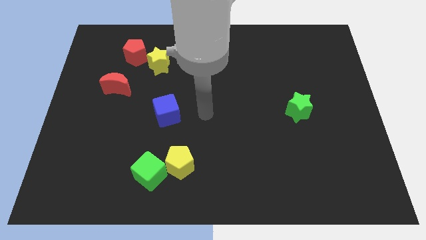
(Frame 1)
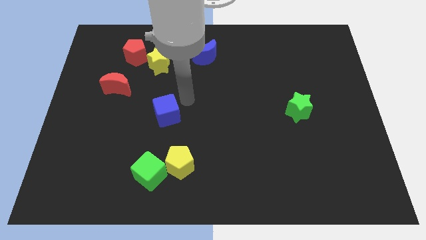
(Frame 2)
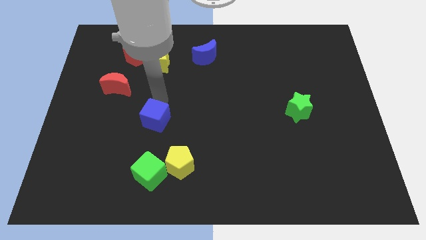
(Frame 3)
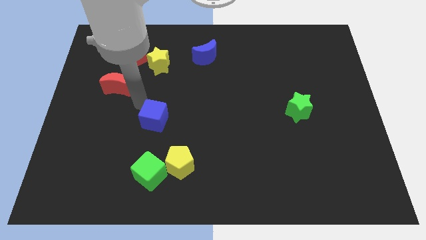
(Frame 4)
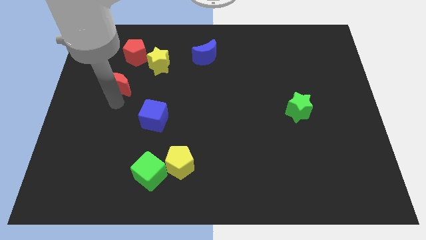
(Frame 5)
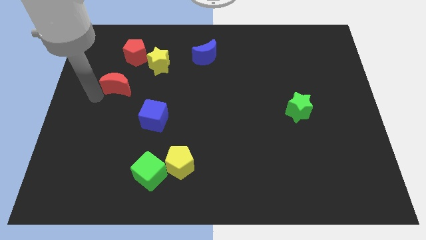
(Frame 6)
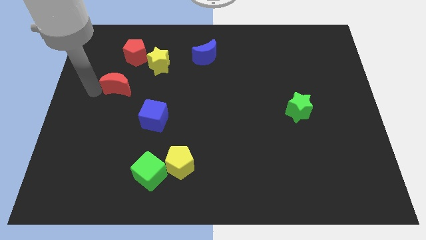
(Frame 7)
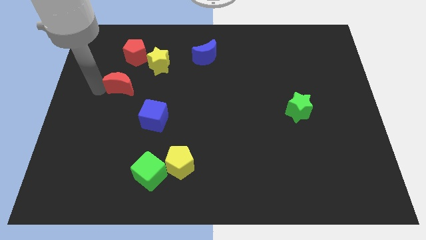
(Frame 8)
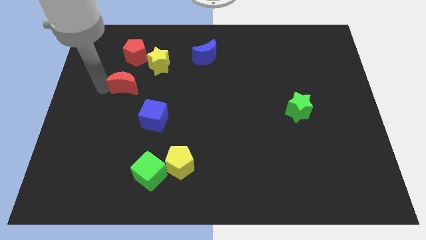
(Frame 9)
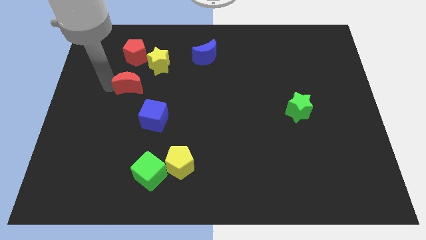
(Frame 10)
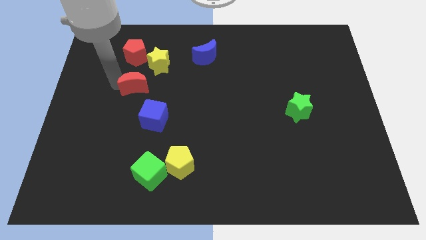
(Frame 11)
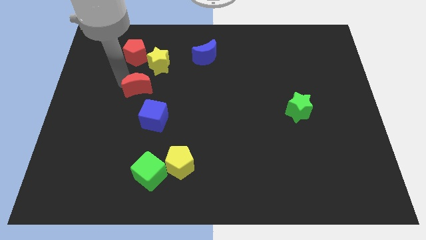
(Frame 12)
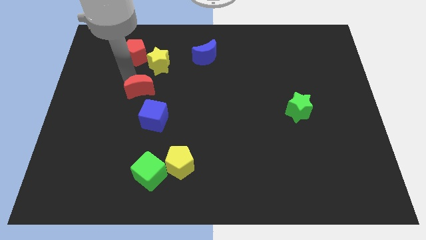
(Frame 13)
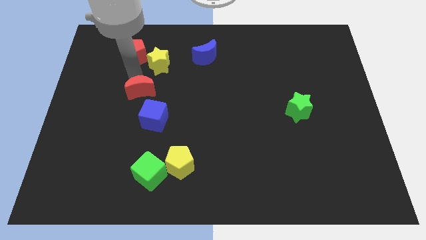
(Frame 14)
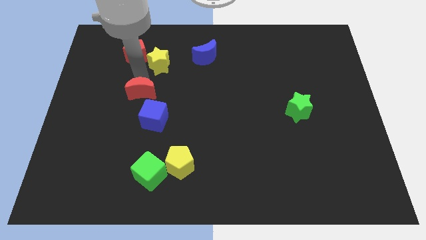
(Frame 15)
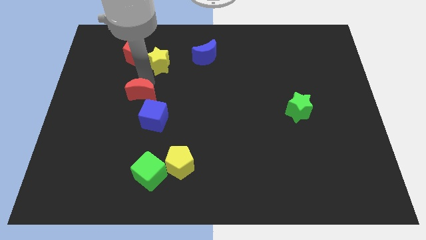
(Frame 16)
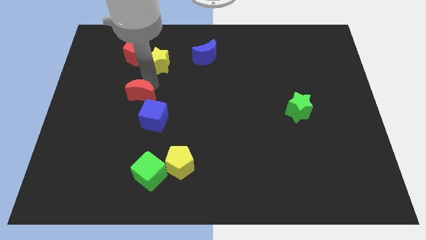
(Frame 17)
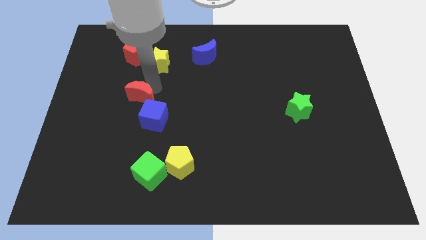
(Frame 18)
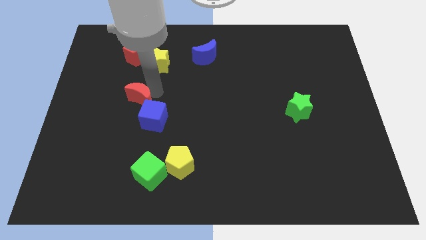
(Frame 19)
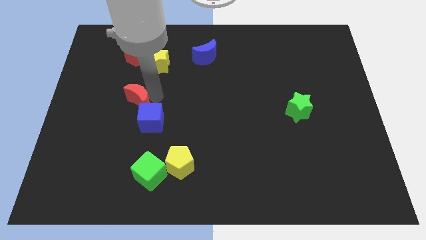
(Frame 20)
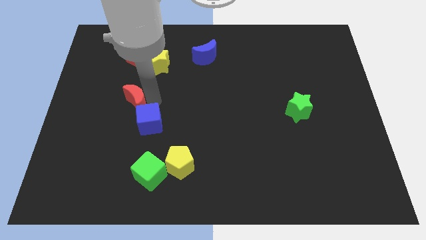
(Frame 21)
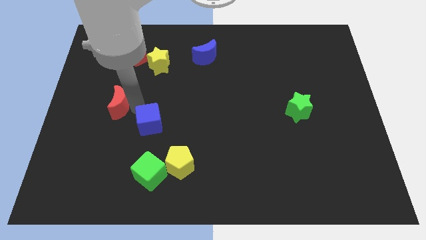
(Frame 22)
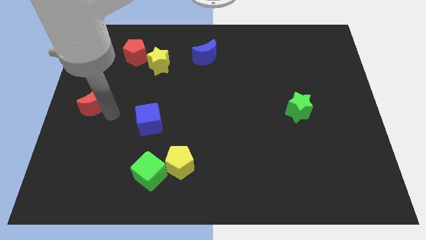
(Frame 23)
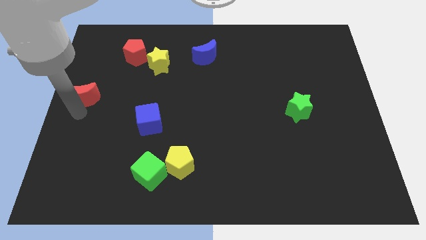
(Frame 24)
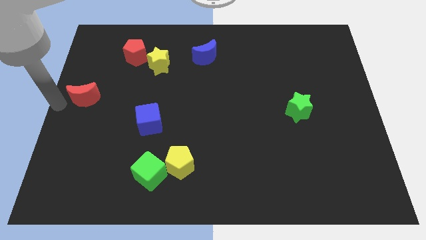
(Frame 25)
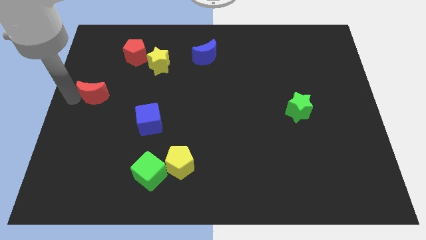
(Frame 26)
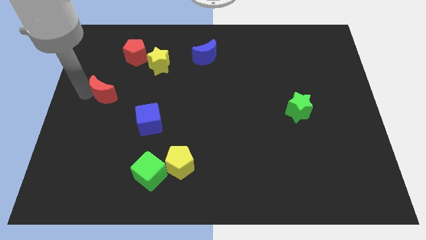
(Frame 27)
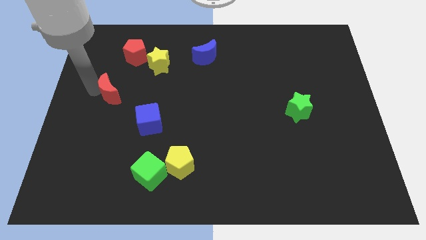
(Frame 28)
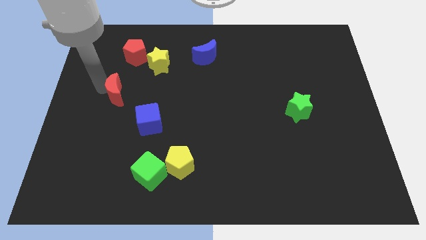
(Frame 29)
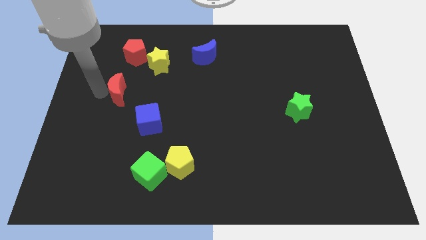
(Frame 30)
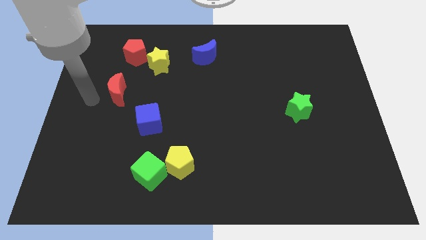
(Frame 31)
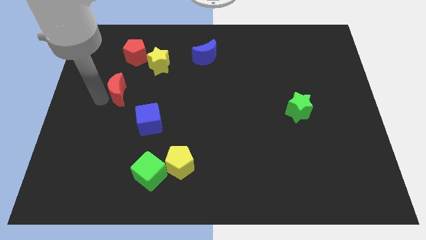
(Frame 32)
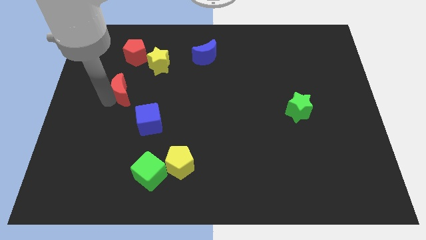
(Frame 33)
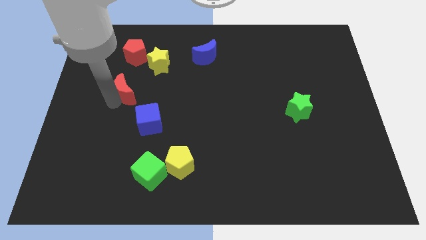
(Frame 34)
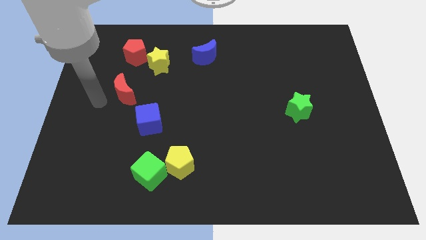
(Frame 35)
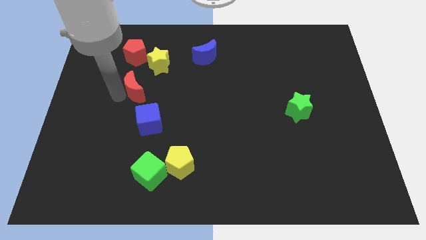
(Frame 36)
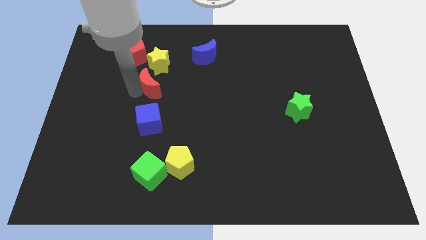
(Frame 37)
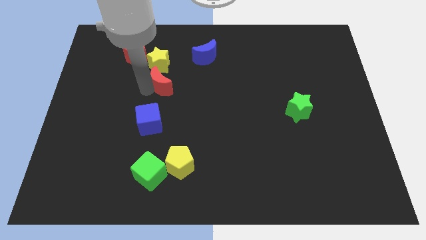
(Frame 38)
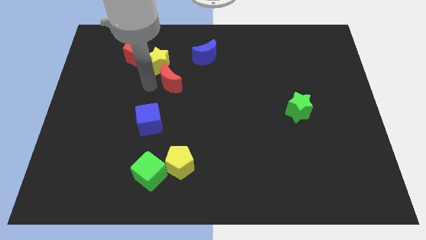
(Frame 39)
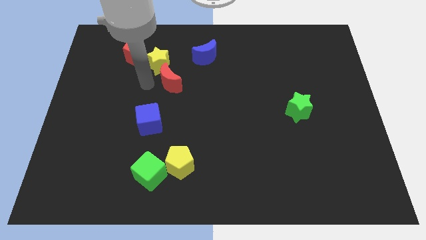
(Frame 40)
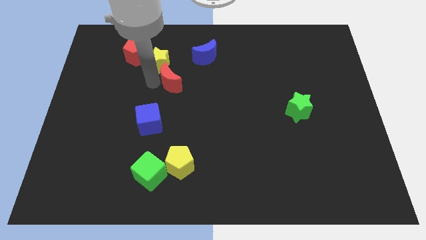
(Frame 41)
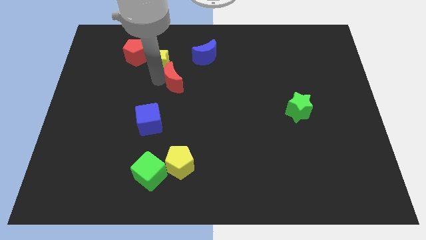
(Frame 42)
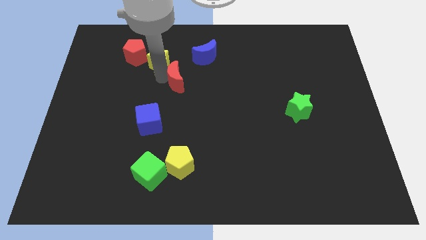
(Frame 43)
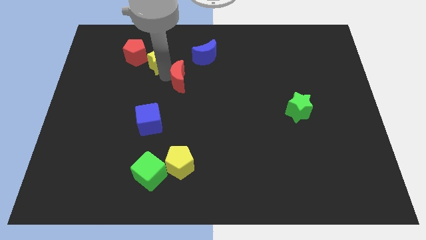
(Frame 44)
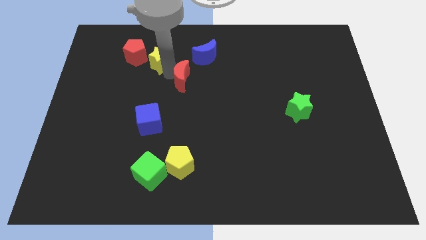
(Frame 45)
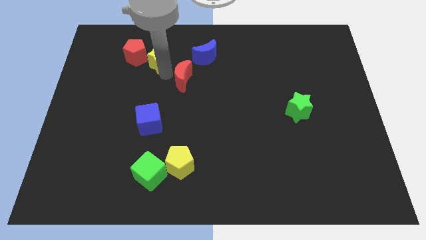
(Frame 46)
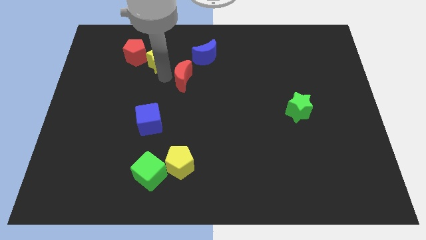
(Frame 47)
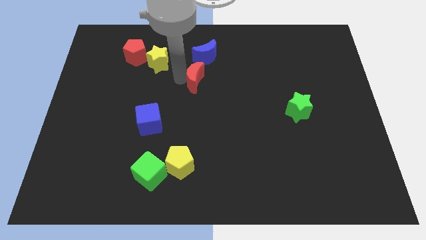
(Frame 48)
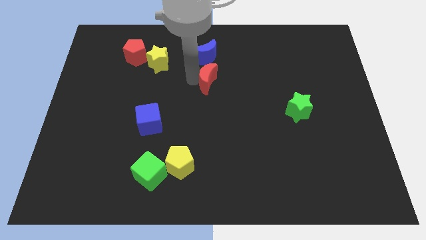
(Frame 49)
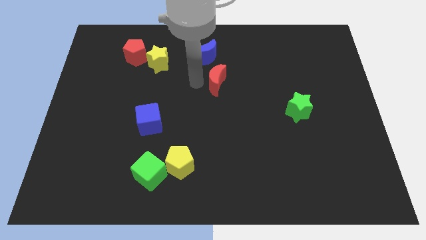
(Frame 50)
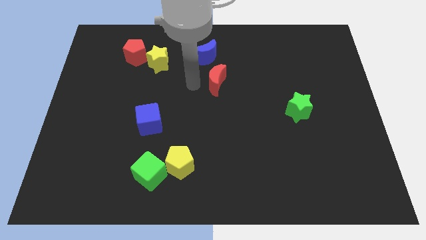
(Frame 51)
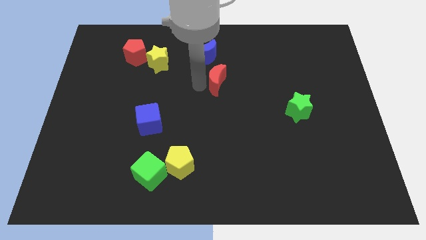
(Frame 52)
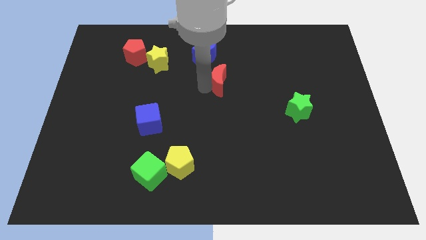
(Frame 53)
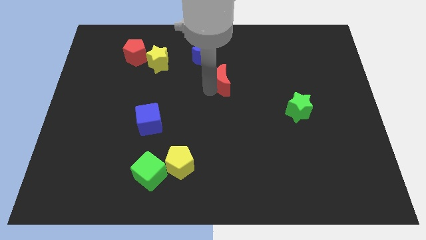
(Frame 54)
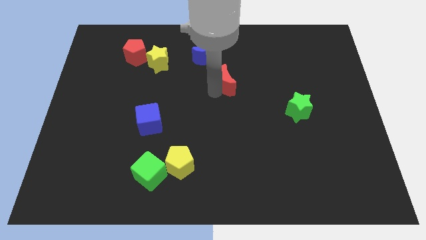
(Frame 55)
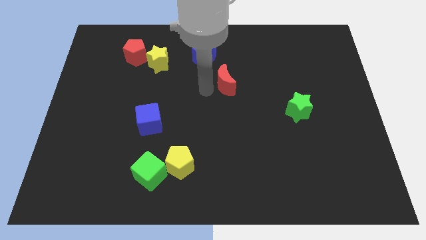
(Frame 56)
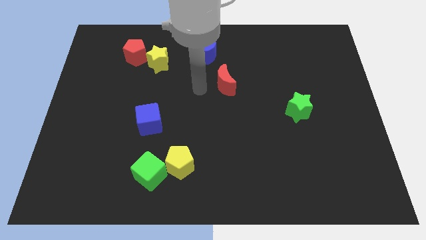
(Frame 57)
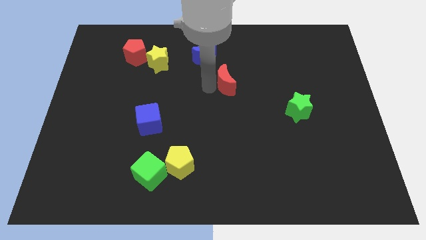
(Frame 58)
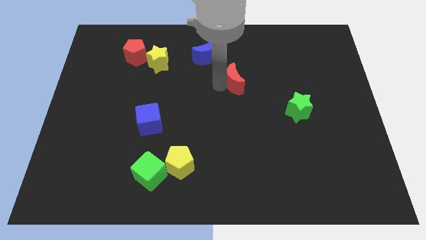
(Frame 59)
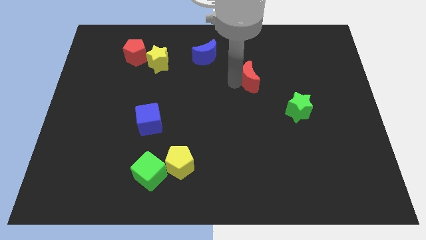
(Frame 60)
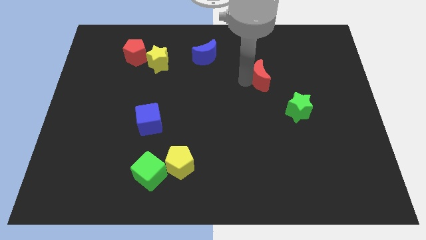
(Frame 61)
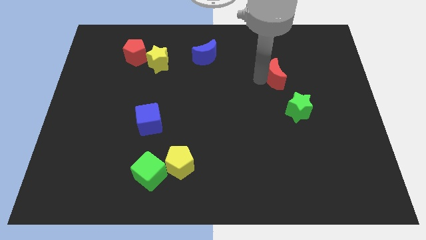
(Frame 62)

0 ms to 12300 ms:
put the red moon to the top of the green star
